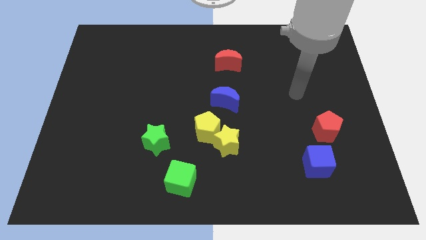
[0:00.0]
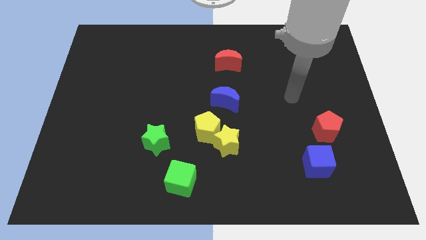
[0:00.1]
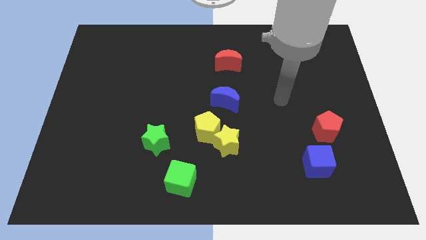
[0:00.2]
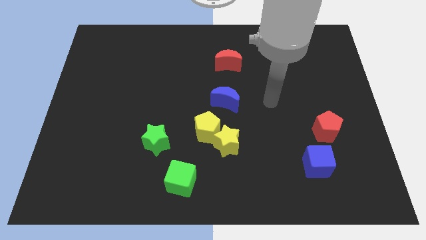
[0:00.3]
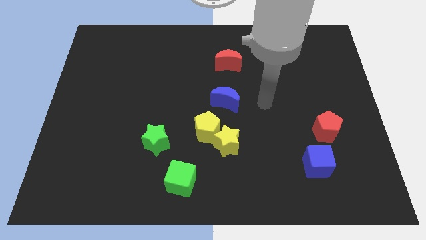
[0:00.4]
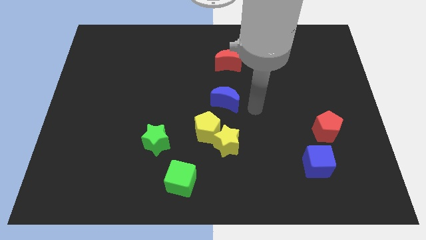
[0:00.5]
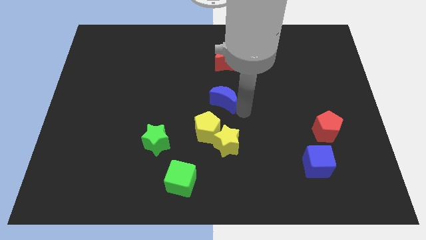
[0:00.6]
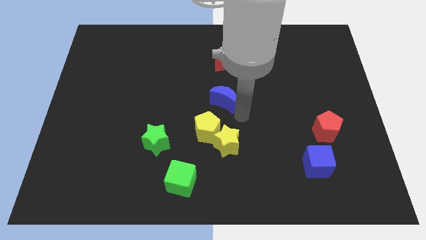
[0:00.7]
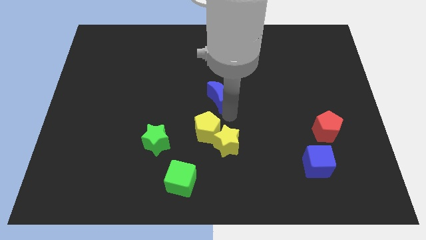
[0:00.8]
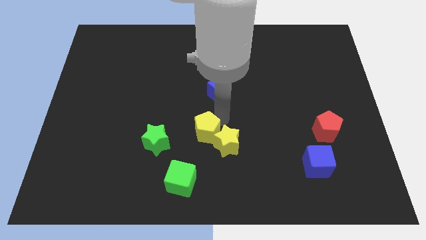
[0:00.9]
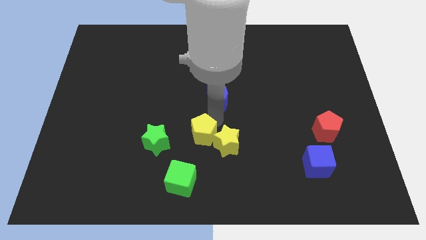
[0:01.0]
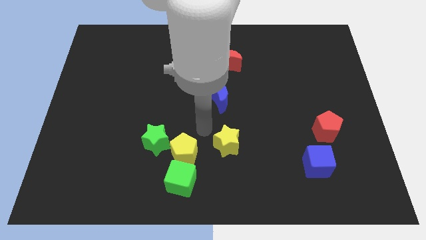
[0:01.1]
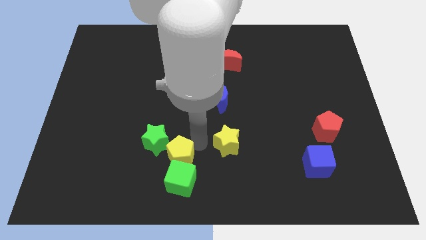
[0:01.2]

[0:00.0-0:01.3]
move the yellow star away from the yellow pentagon

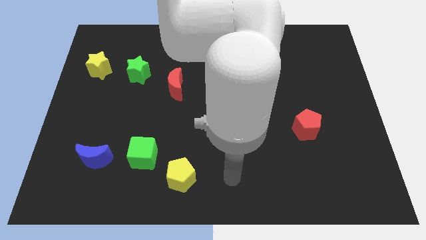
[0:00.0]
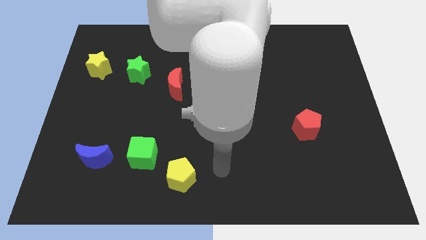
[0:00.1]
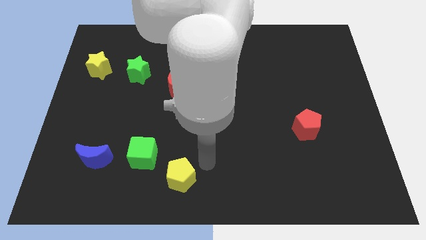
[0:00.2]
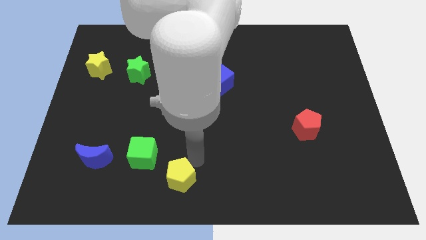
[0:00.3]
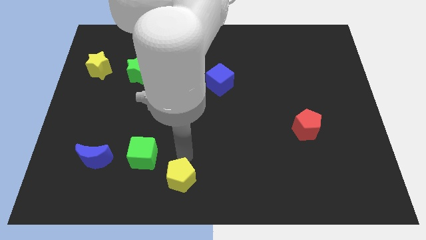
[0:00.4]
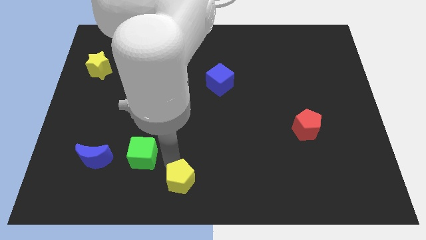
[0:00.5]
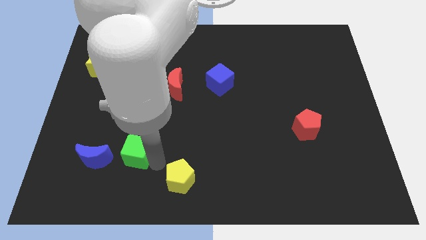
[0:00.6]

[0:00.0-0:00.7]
move the yellow pentagon away from the green cube

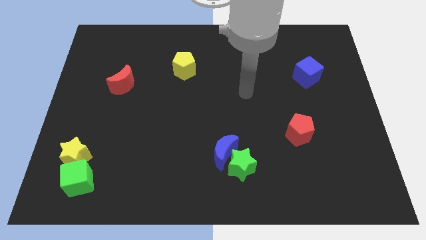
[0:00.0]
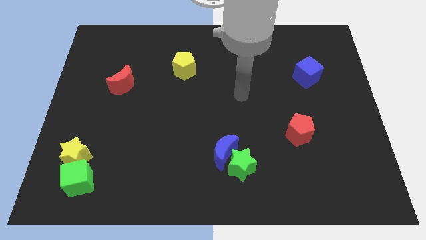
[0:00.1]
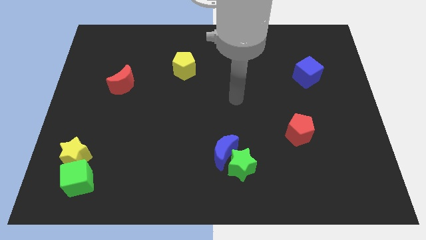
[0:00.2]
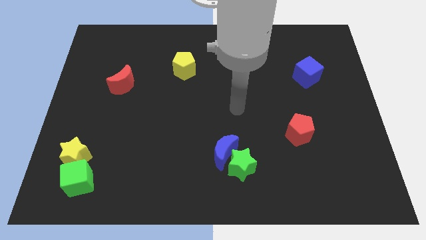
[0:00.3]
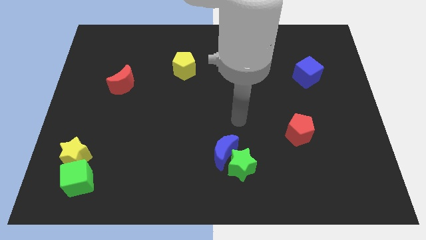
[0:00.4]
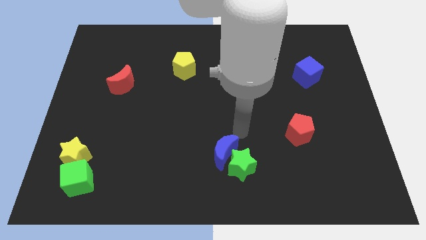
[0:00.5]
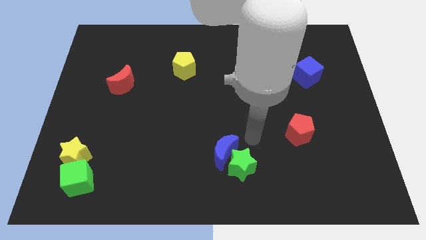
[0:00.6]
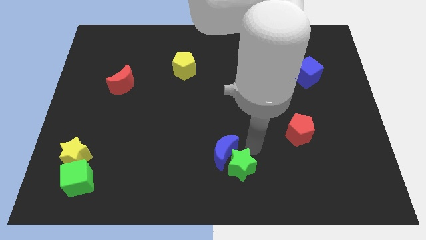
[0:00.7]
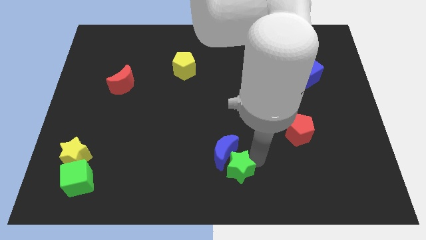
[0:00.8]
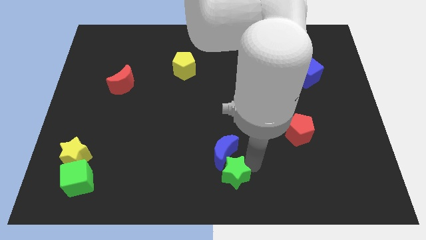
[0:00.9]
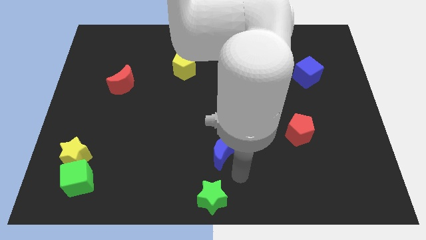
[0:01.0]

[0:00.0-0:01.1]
pull the blue moon apart from the green star

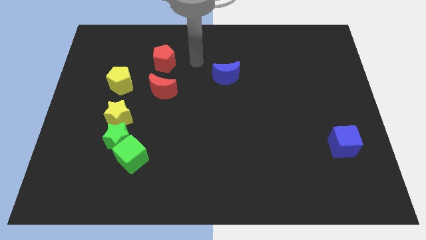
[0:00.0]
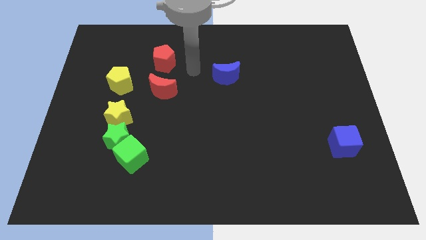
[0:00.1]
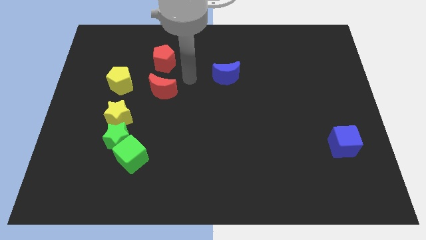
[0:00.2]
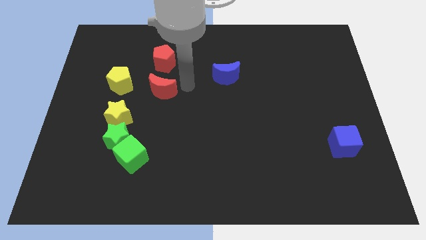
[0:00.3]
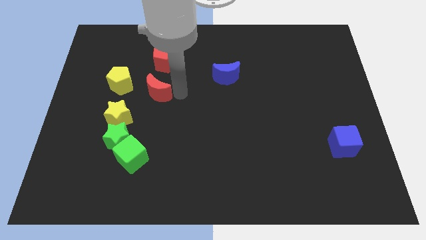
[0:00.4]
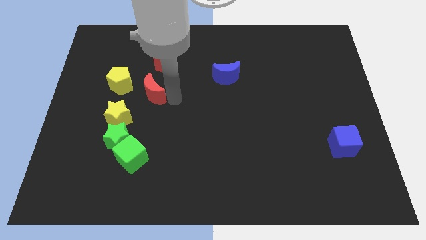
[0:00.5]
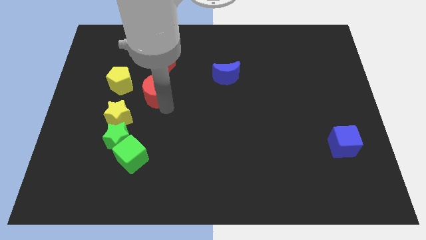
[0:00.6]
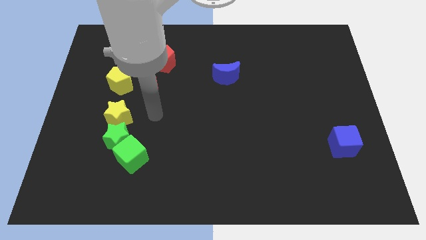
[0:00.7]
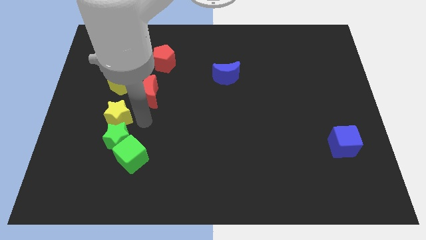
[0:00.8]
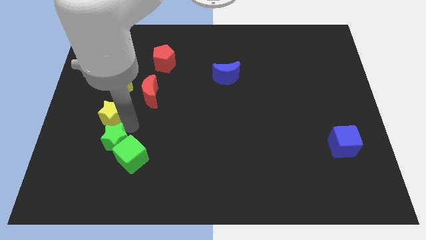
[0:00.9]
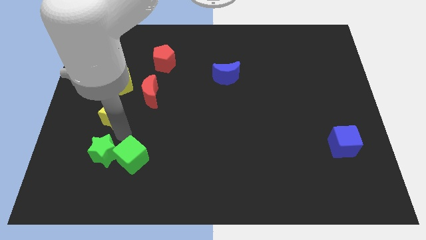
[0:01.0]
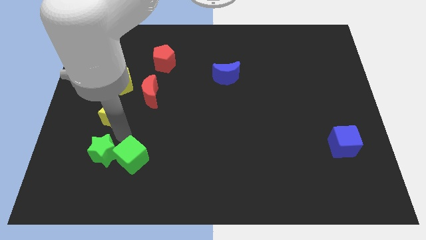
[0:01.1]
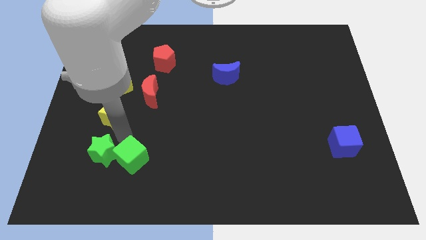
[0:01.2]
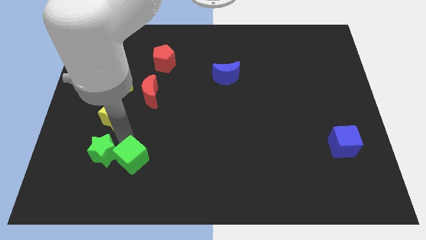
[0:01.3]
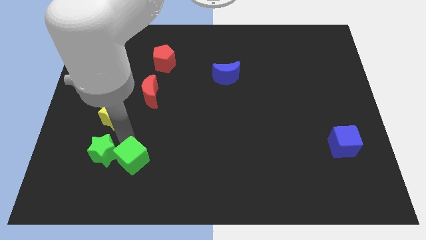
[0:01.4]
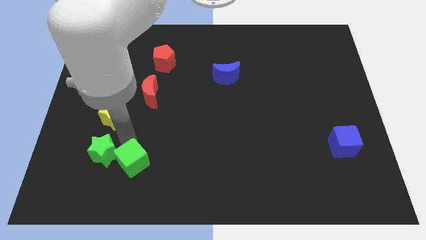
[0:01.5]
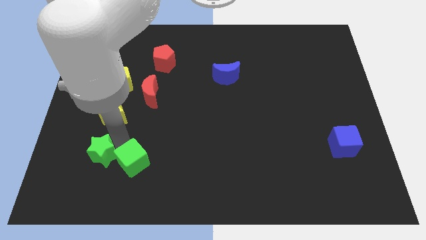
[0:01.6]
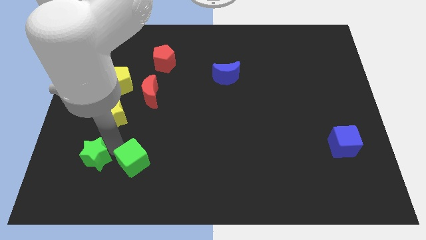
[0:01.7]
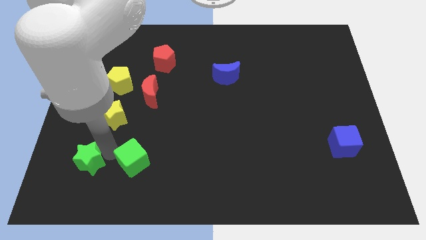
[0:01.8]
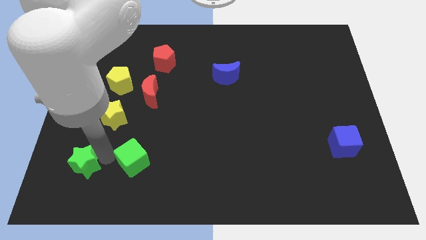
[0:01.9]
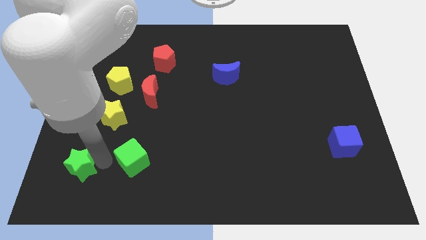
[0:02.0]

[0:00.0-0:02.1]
pull the green cube apart from the green star

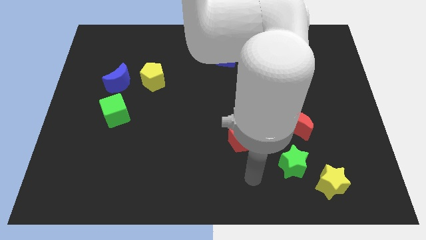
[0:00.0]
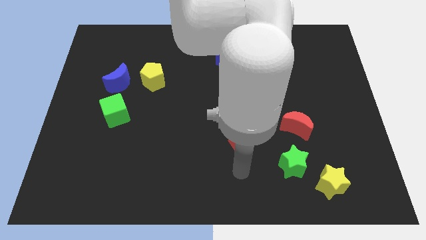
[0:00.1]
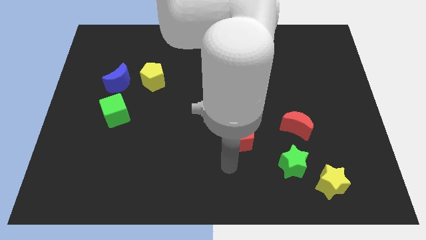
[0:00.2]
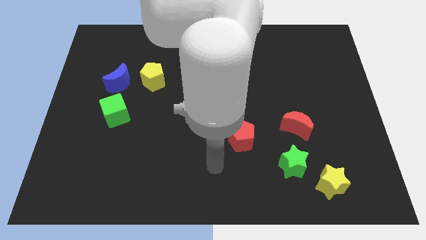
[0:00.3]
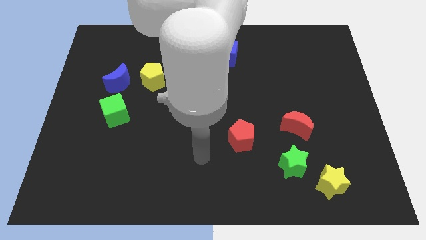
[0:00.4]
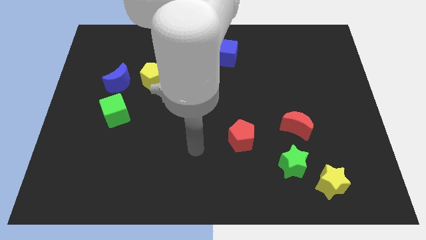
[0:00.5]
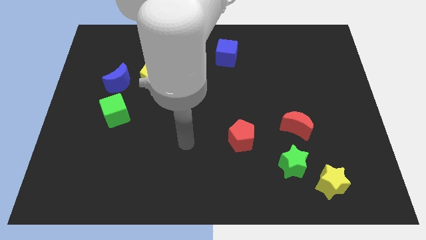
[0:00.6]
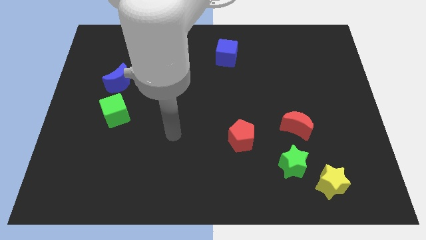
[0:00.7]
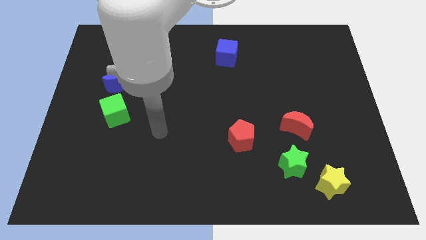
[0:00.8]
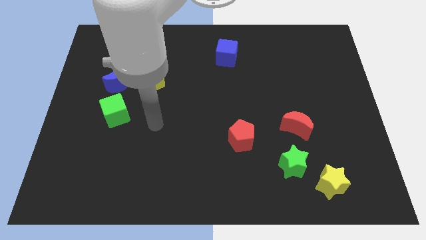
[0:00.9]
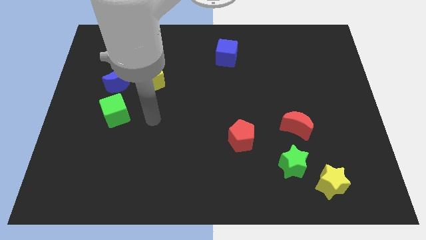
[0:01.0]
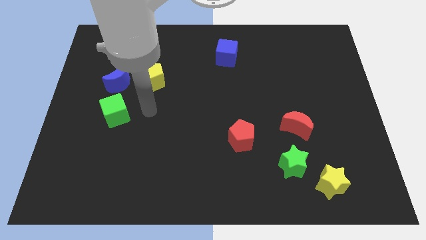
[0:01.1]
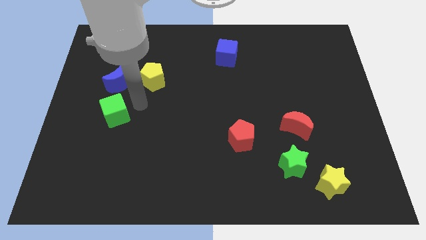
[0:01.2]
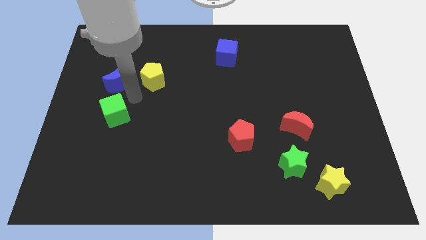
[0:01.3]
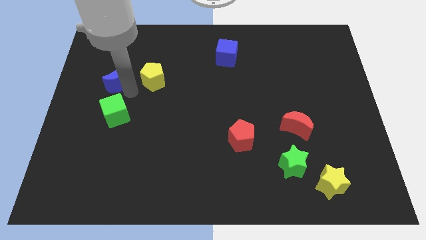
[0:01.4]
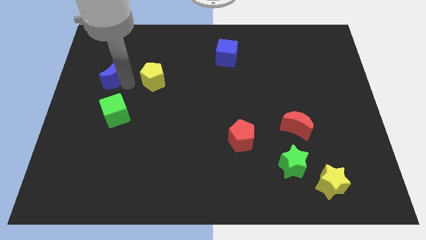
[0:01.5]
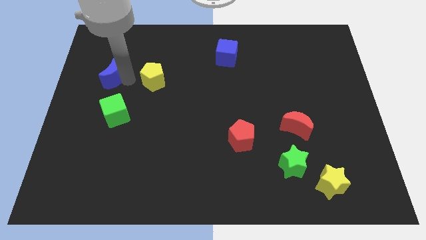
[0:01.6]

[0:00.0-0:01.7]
move the yellow pentagon away from the blue moon

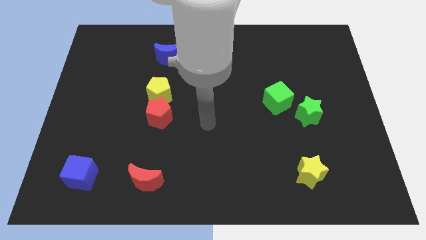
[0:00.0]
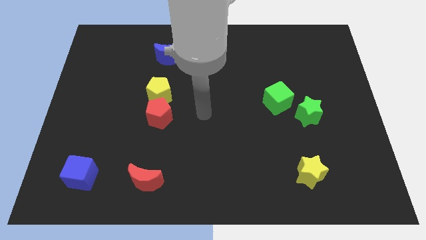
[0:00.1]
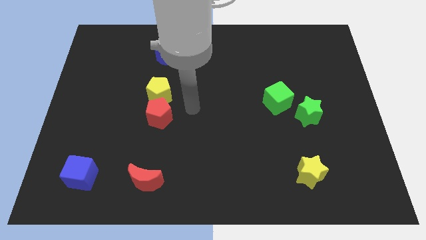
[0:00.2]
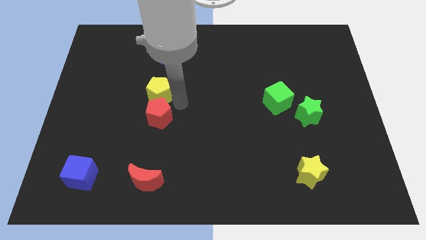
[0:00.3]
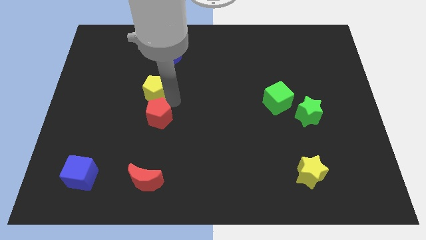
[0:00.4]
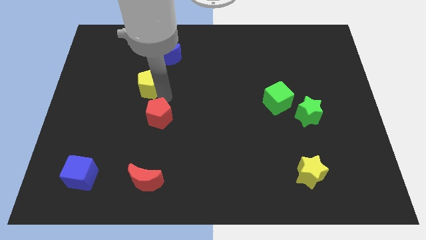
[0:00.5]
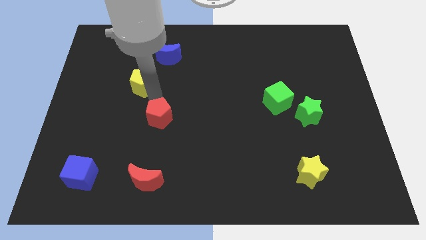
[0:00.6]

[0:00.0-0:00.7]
pull the red pentagon apart from the yellow pentagon

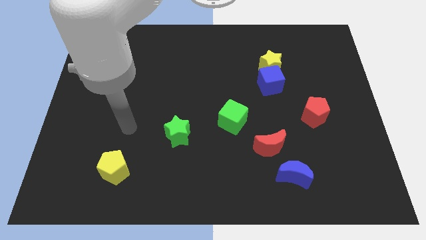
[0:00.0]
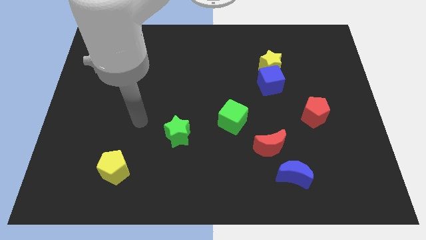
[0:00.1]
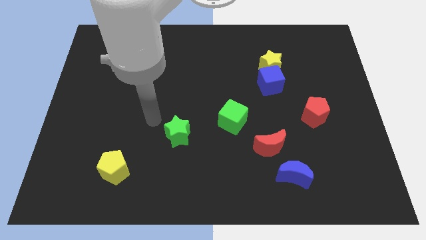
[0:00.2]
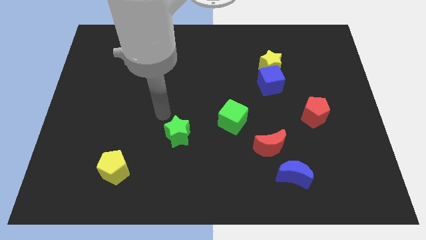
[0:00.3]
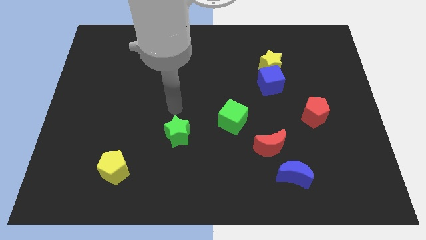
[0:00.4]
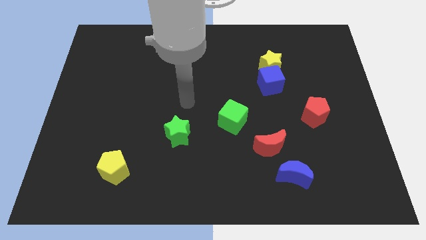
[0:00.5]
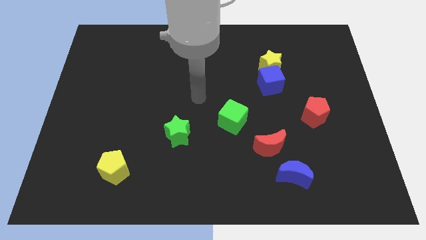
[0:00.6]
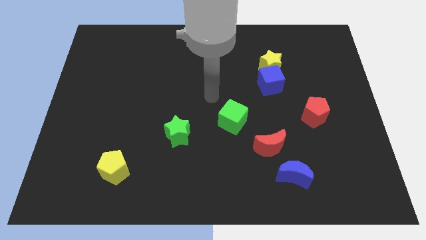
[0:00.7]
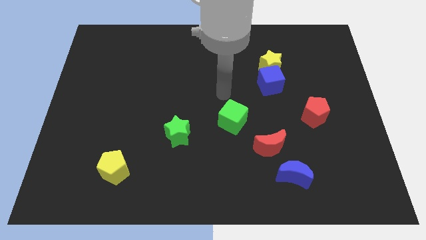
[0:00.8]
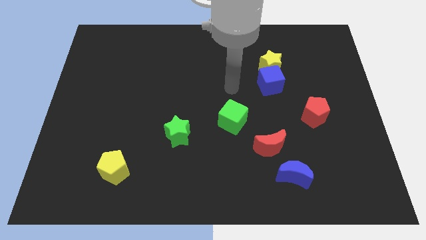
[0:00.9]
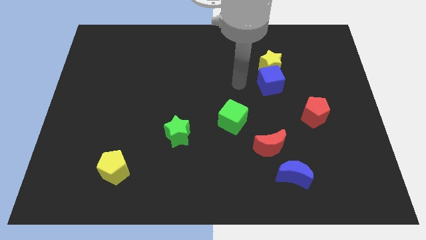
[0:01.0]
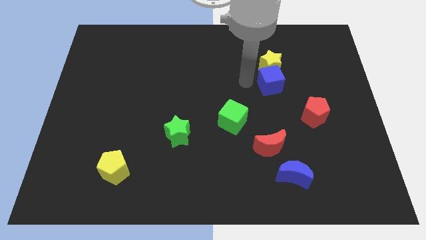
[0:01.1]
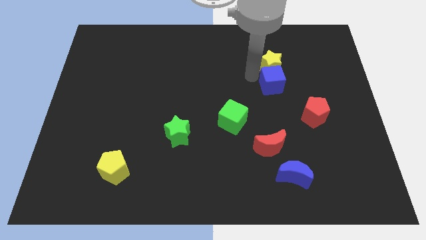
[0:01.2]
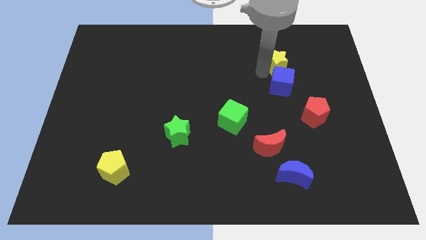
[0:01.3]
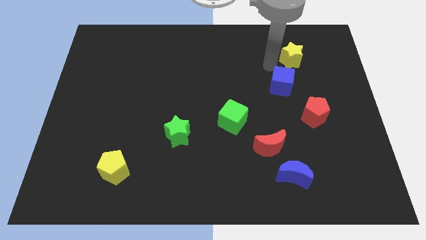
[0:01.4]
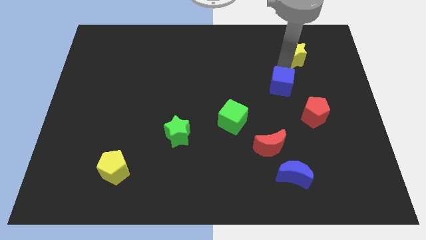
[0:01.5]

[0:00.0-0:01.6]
move the blue cube away from the yellow star

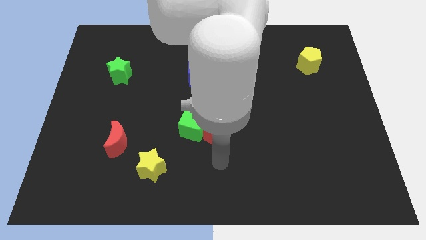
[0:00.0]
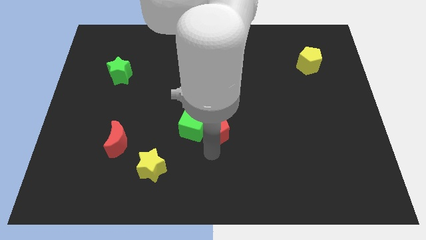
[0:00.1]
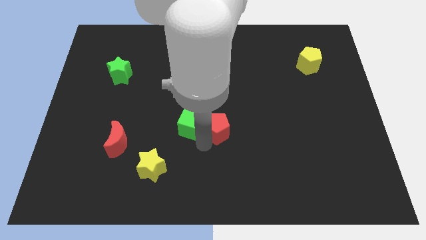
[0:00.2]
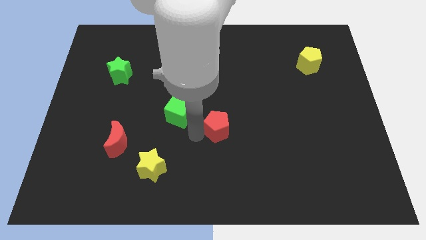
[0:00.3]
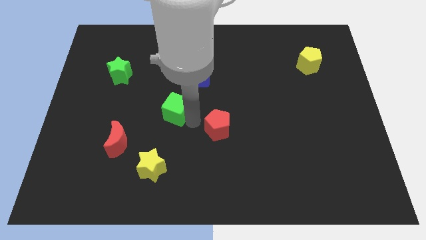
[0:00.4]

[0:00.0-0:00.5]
separate the red pentagon from the green cube
